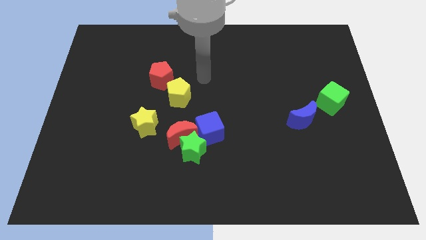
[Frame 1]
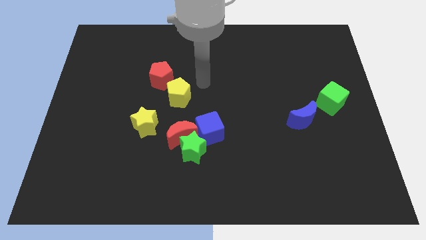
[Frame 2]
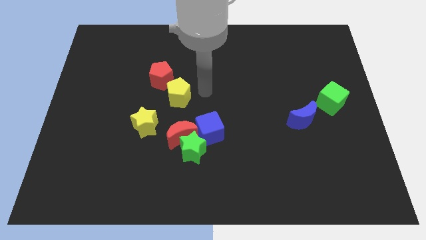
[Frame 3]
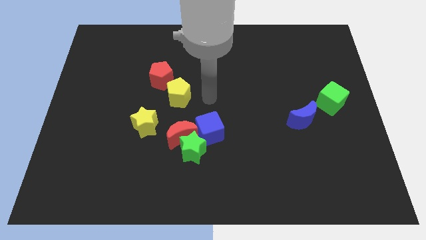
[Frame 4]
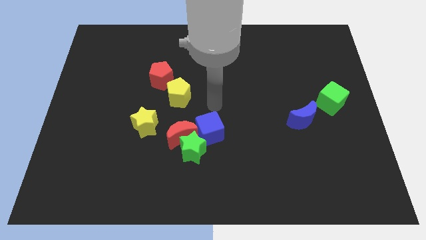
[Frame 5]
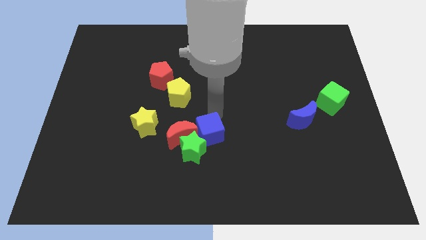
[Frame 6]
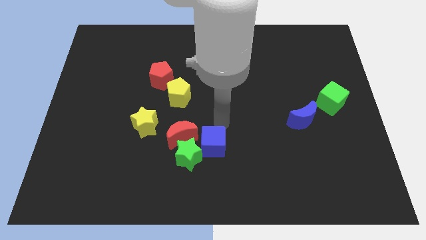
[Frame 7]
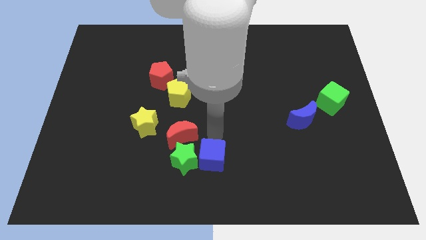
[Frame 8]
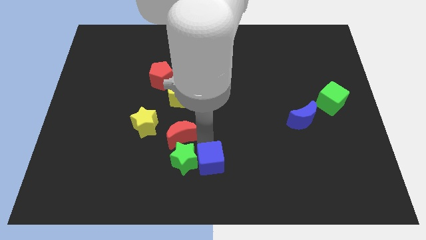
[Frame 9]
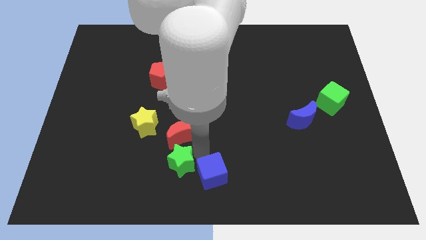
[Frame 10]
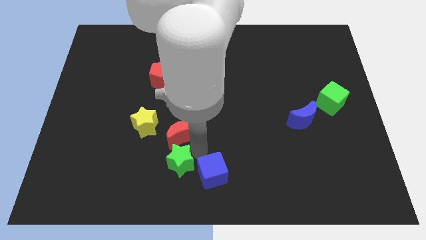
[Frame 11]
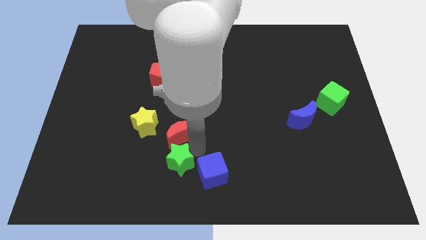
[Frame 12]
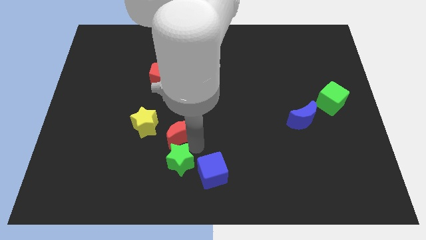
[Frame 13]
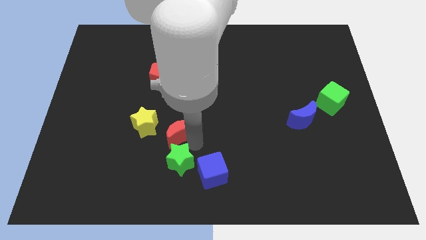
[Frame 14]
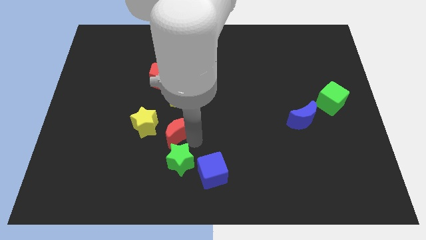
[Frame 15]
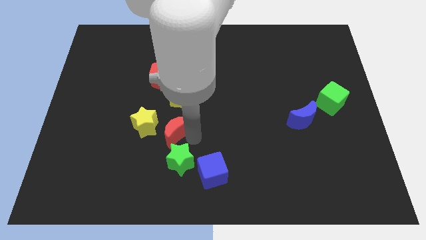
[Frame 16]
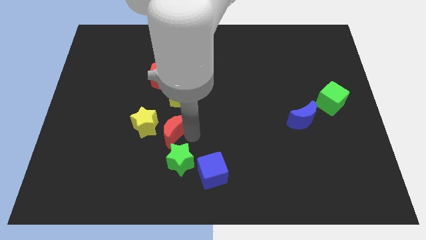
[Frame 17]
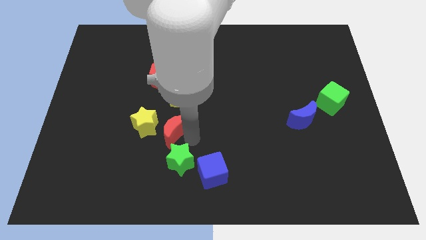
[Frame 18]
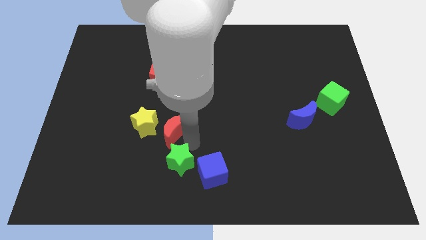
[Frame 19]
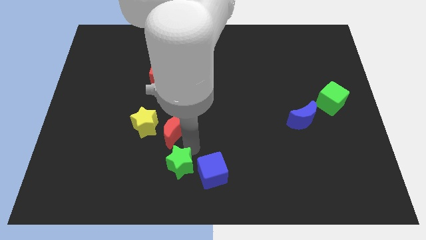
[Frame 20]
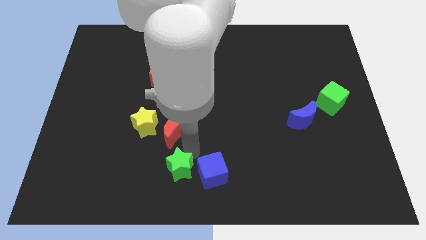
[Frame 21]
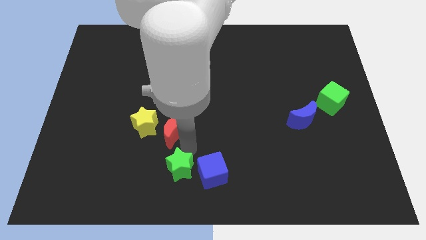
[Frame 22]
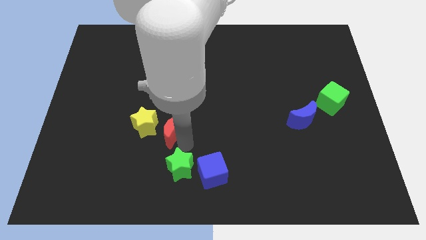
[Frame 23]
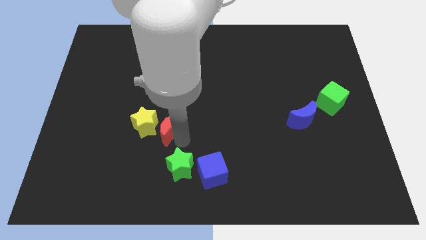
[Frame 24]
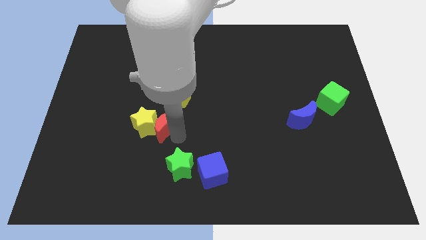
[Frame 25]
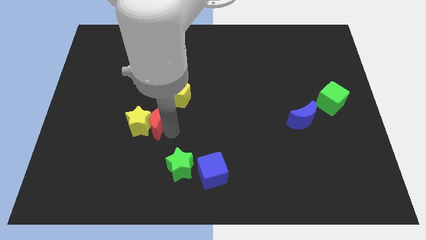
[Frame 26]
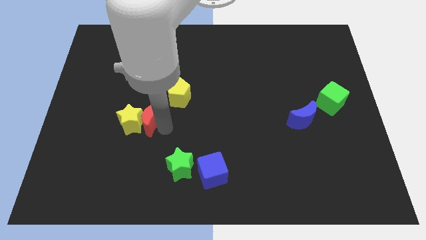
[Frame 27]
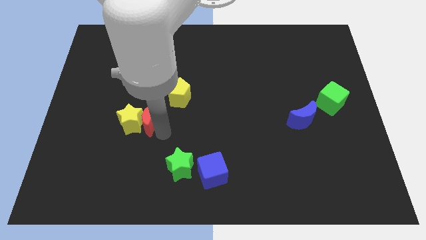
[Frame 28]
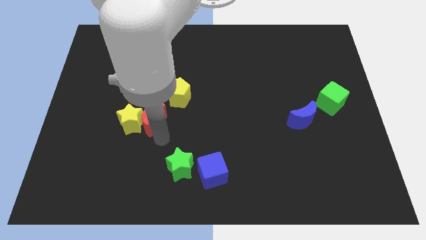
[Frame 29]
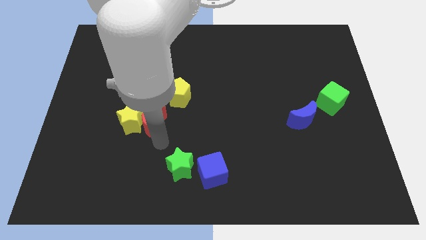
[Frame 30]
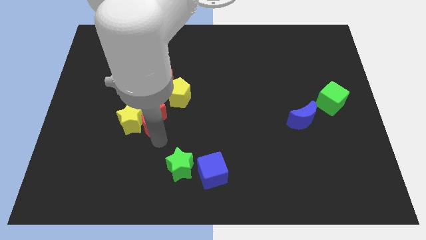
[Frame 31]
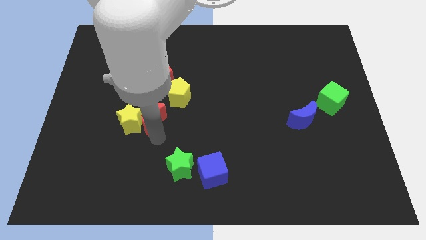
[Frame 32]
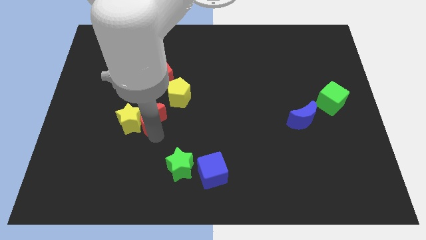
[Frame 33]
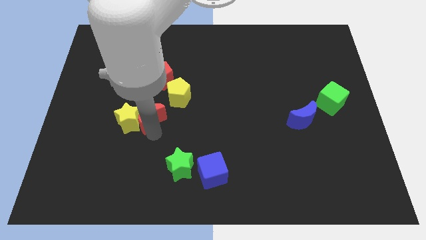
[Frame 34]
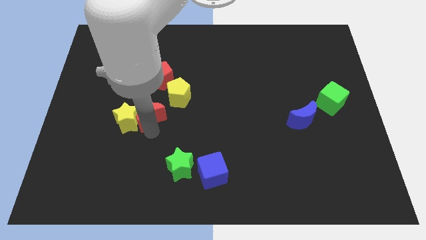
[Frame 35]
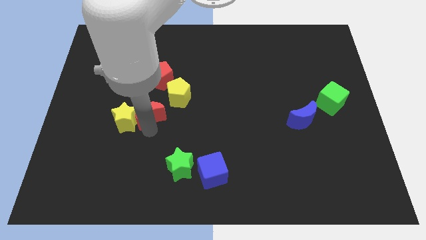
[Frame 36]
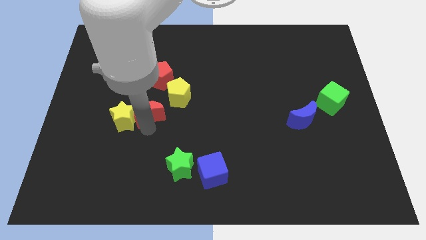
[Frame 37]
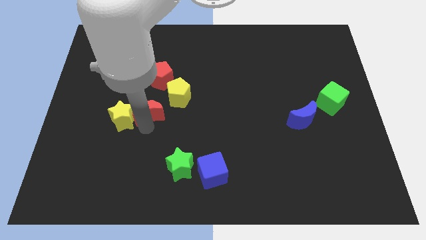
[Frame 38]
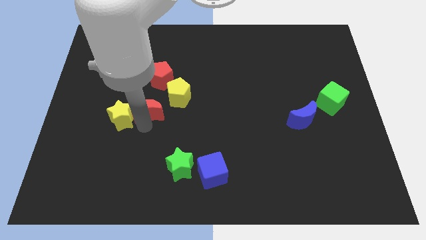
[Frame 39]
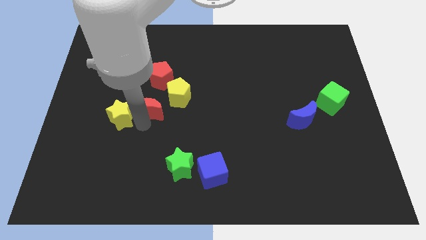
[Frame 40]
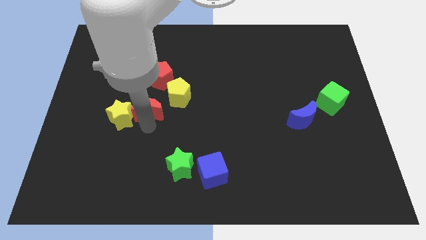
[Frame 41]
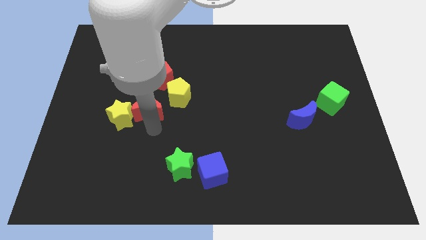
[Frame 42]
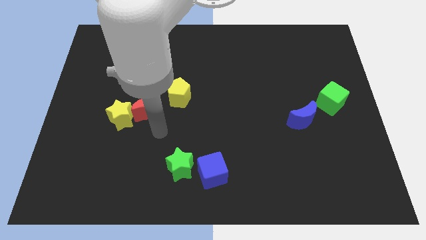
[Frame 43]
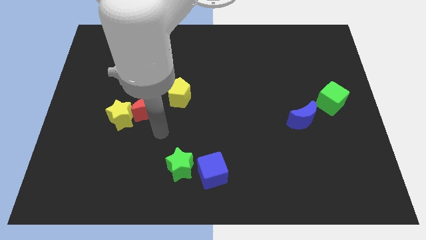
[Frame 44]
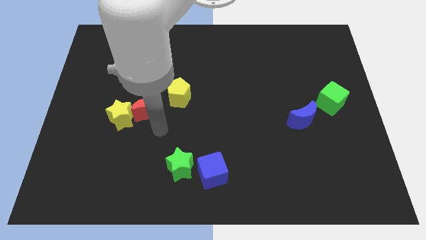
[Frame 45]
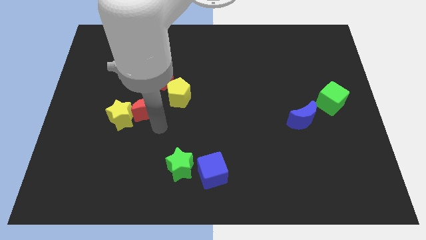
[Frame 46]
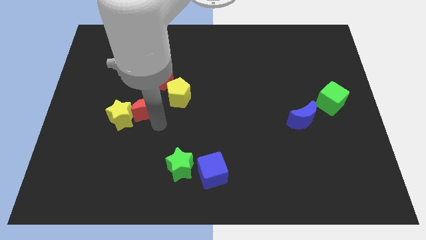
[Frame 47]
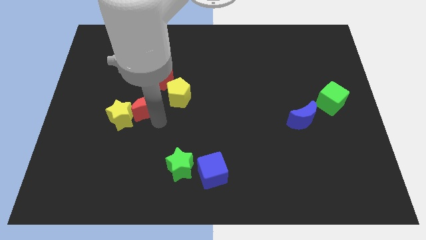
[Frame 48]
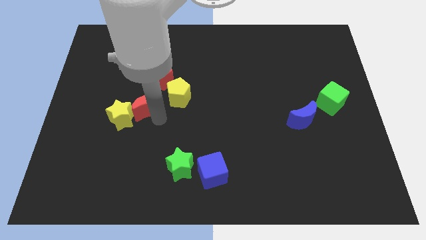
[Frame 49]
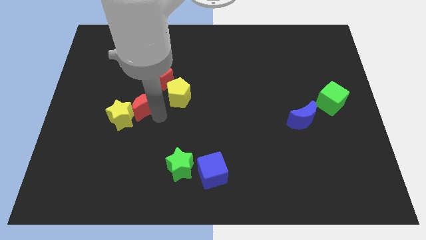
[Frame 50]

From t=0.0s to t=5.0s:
put the red moon diagonally down and to the left of the red pentagon

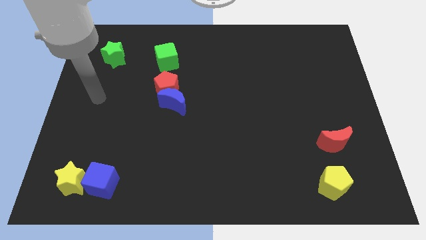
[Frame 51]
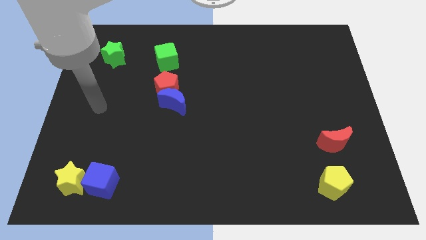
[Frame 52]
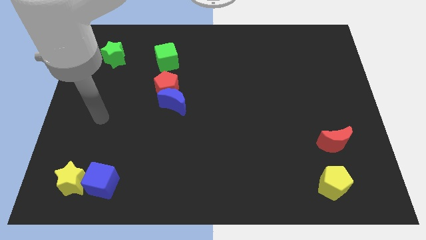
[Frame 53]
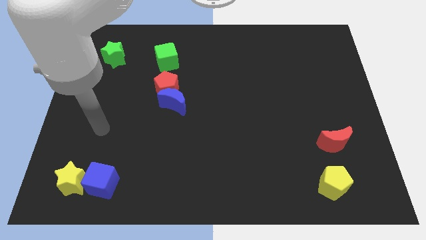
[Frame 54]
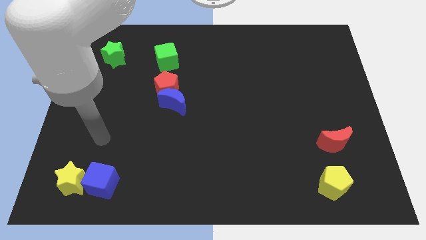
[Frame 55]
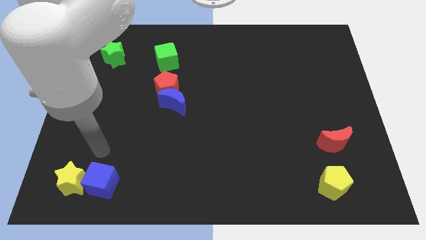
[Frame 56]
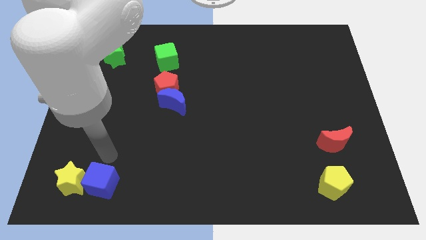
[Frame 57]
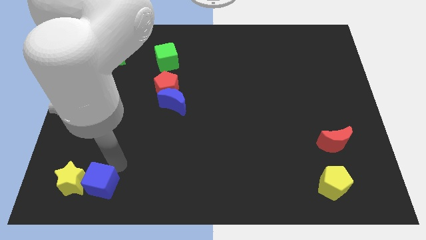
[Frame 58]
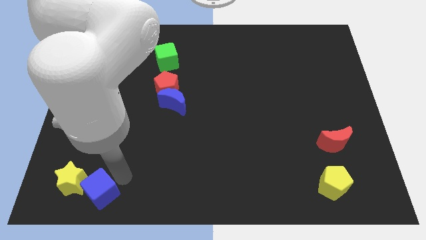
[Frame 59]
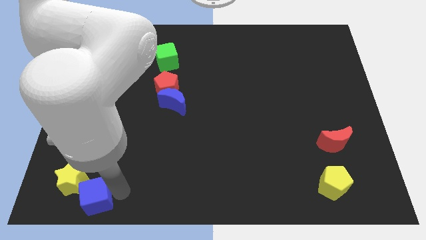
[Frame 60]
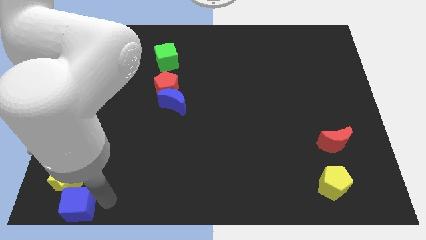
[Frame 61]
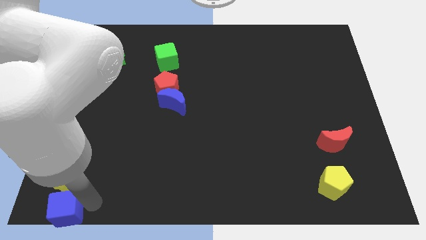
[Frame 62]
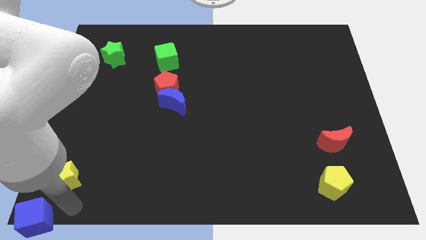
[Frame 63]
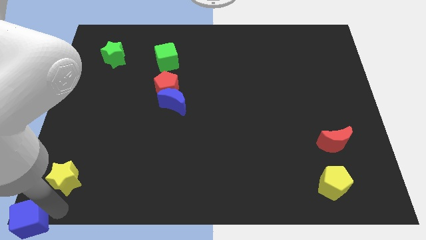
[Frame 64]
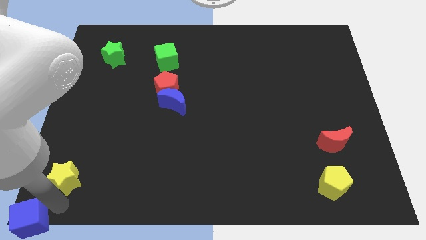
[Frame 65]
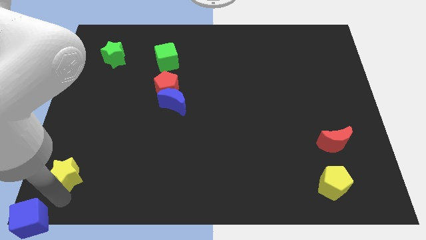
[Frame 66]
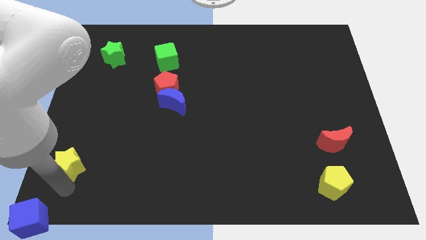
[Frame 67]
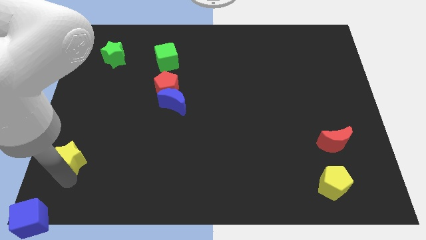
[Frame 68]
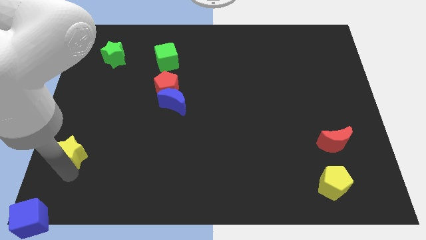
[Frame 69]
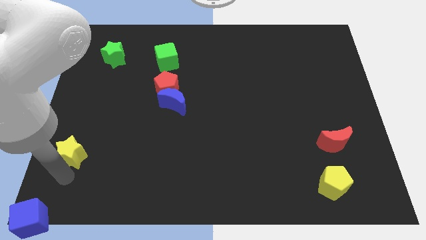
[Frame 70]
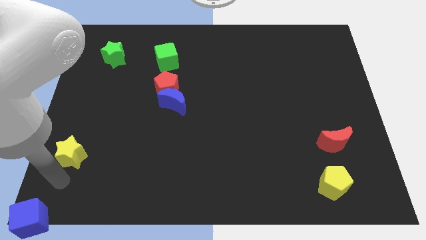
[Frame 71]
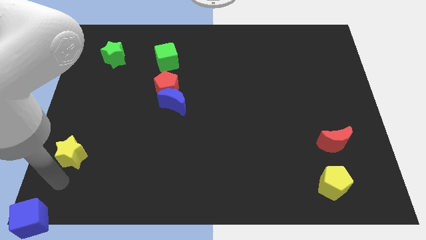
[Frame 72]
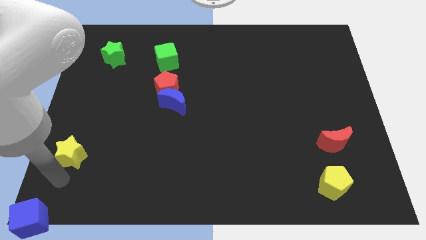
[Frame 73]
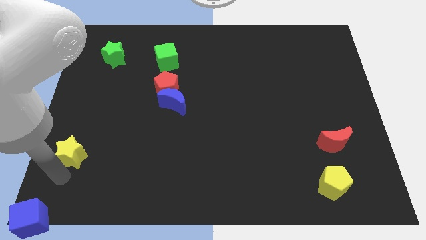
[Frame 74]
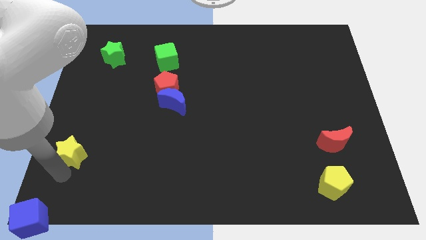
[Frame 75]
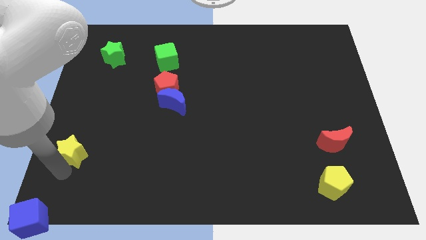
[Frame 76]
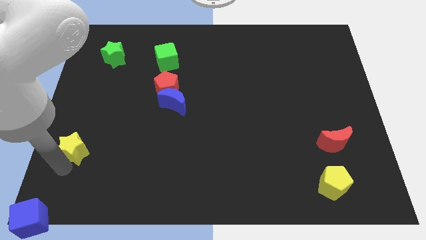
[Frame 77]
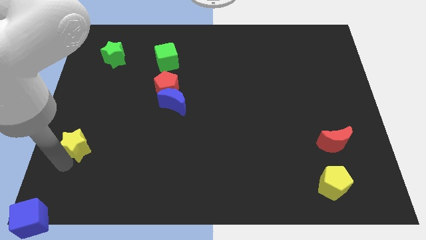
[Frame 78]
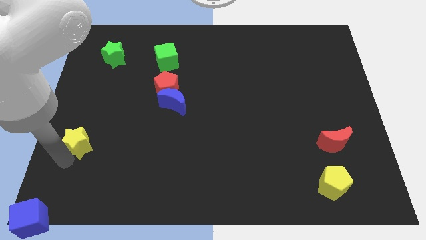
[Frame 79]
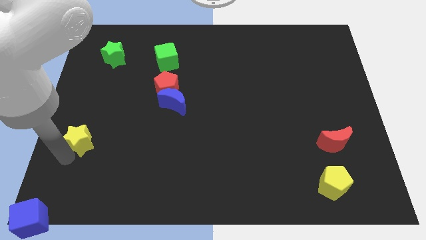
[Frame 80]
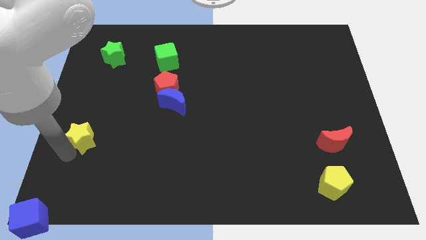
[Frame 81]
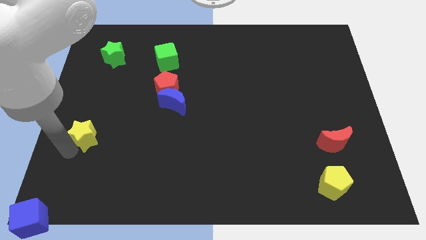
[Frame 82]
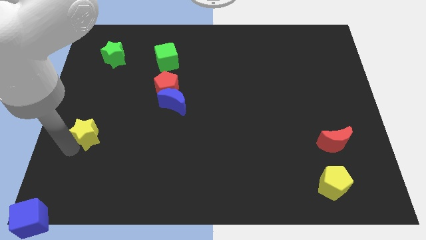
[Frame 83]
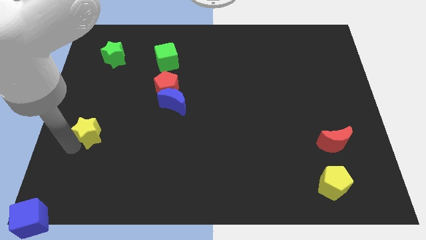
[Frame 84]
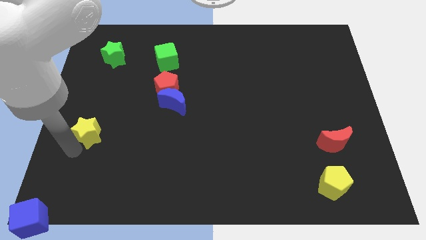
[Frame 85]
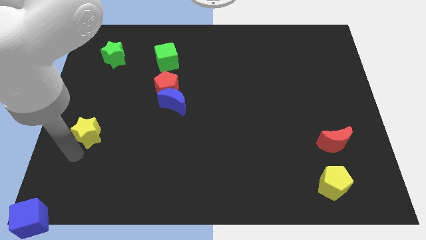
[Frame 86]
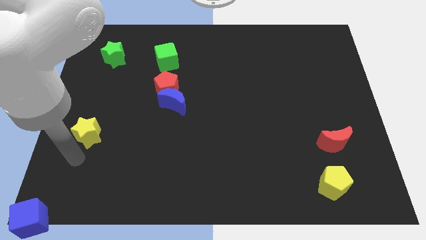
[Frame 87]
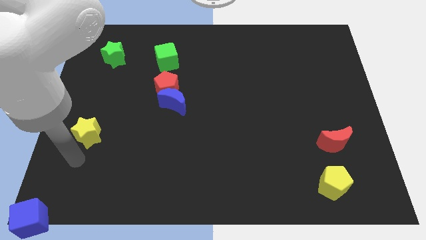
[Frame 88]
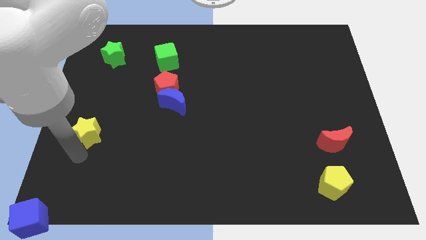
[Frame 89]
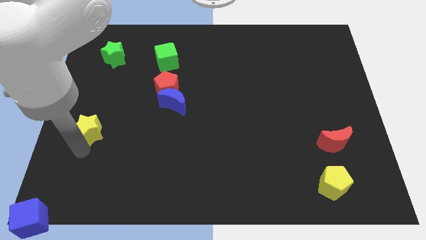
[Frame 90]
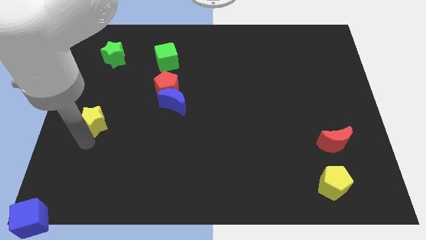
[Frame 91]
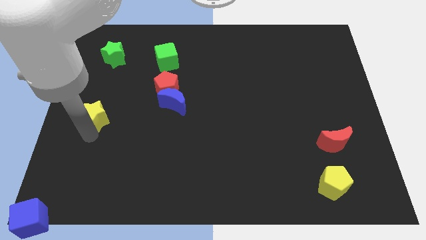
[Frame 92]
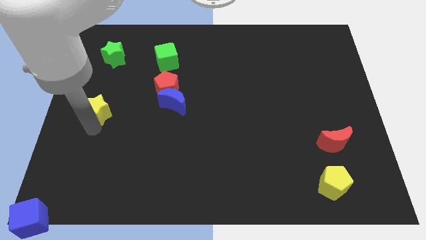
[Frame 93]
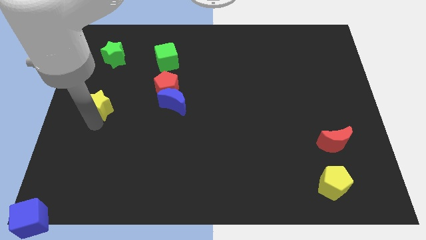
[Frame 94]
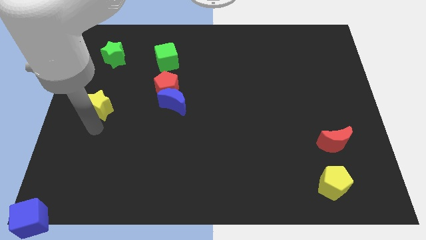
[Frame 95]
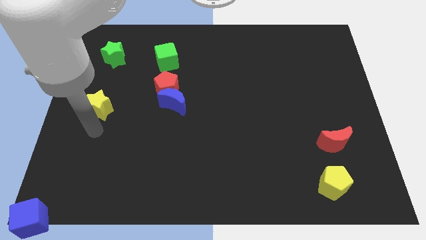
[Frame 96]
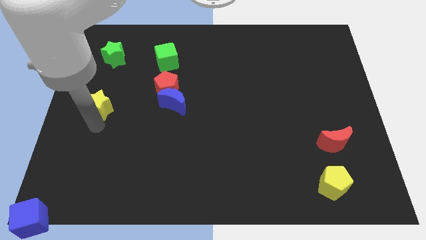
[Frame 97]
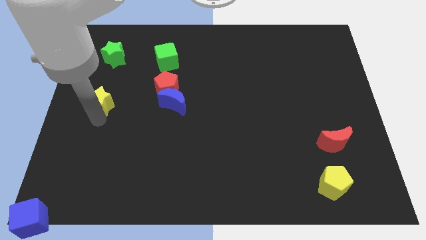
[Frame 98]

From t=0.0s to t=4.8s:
put the yellow star to the bottom side of the green star
